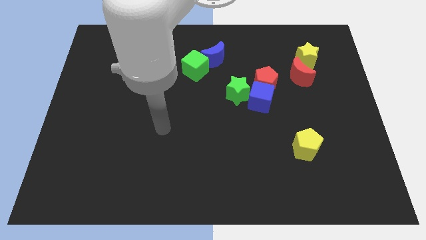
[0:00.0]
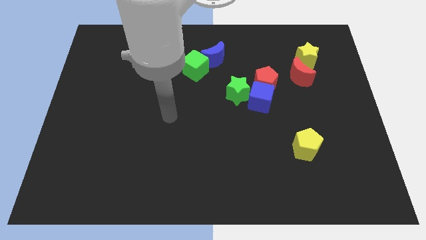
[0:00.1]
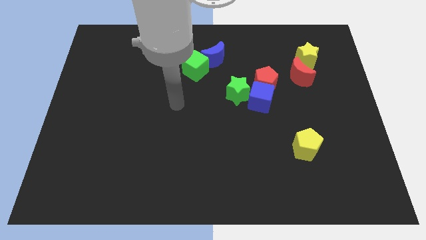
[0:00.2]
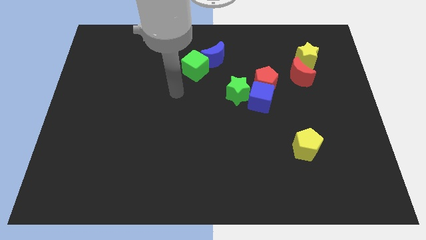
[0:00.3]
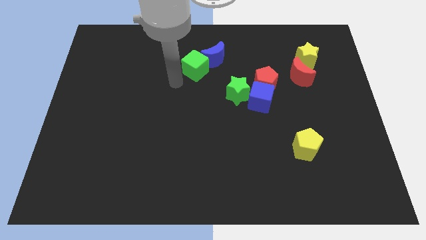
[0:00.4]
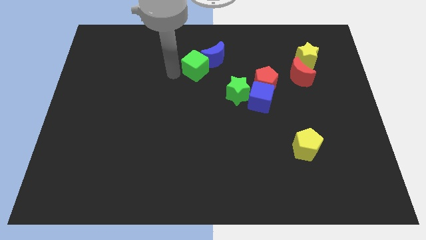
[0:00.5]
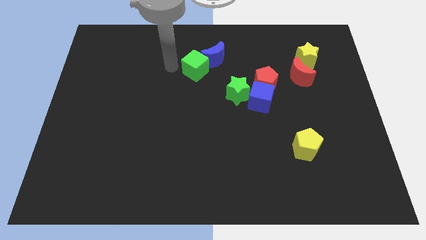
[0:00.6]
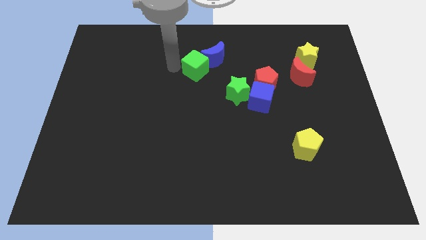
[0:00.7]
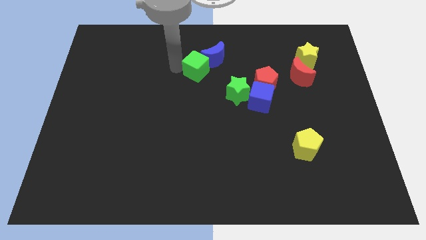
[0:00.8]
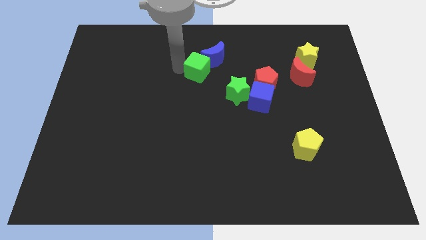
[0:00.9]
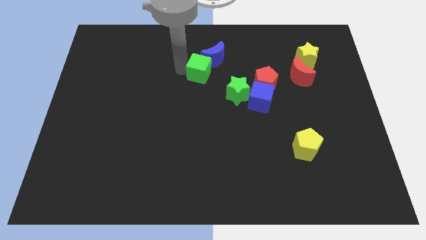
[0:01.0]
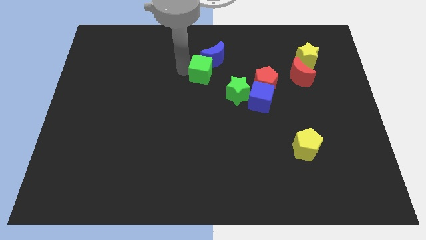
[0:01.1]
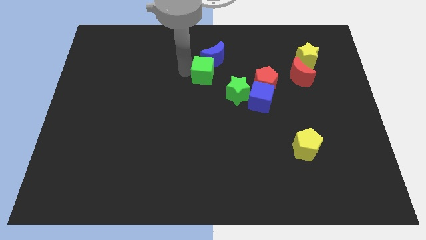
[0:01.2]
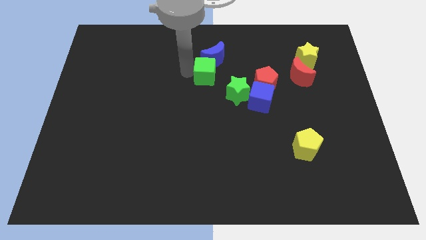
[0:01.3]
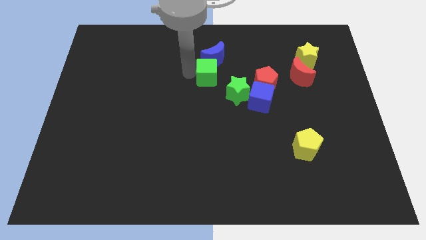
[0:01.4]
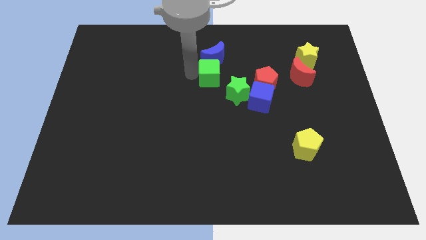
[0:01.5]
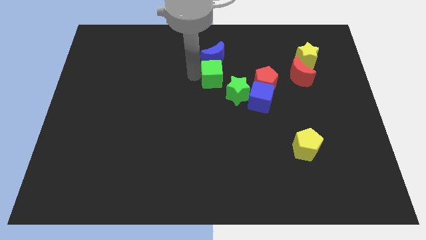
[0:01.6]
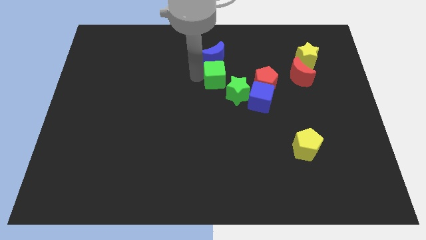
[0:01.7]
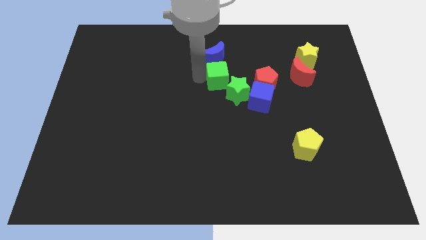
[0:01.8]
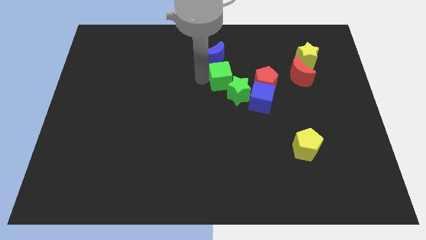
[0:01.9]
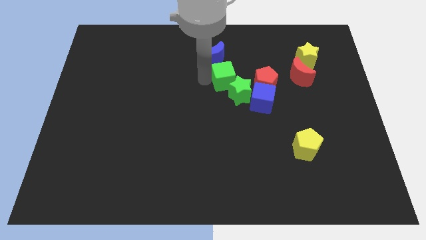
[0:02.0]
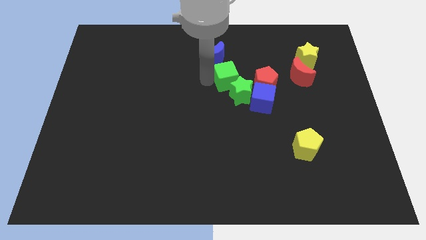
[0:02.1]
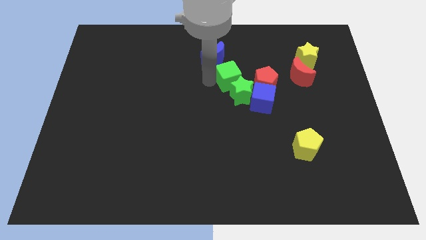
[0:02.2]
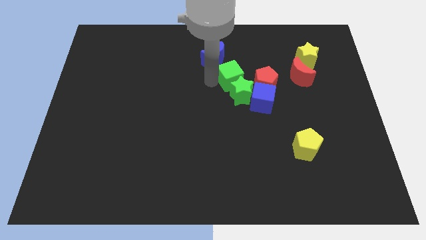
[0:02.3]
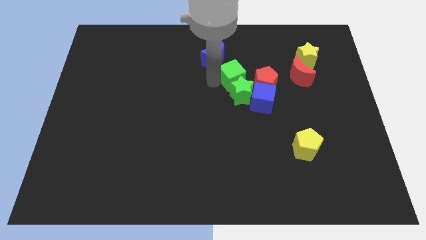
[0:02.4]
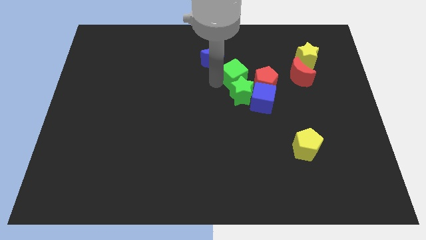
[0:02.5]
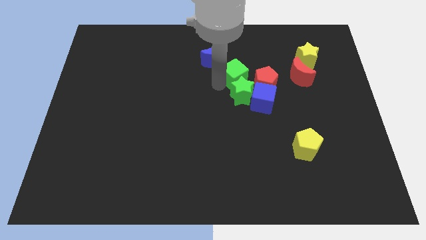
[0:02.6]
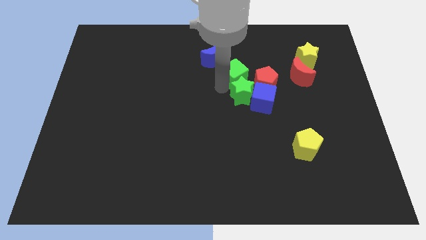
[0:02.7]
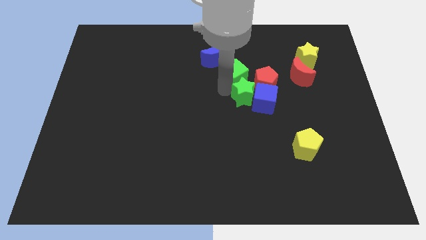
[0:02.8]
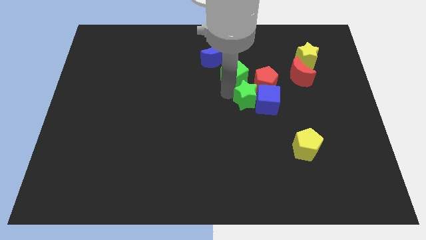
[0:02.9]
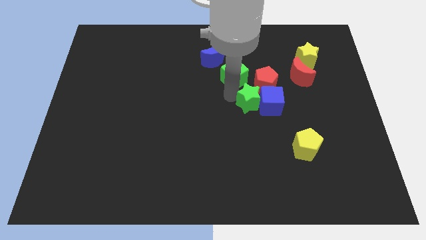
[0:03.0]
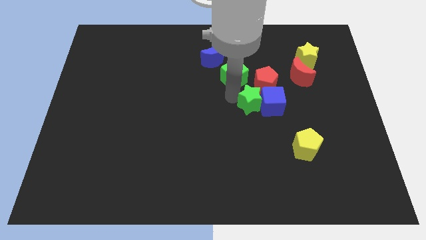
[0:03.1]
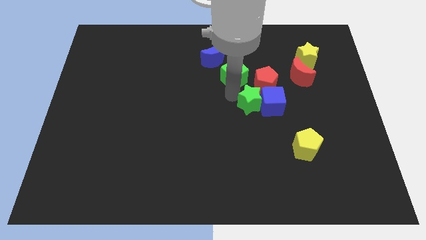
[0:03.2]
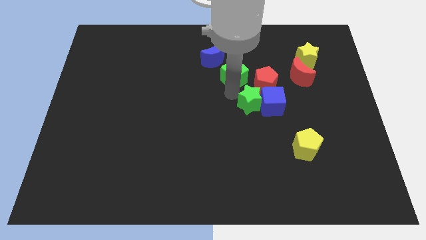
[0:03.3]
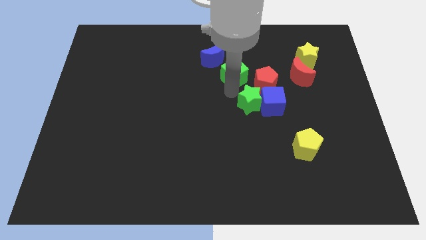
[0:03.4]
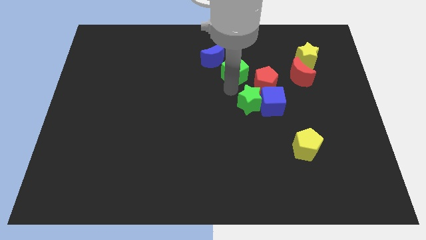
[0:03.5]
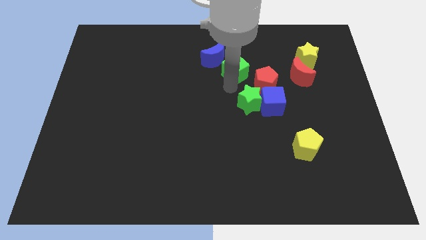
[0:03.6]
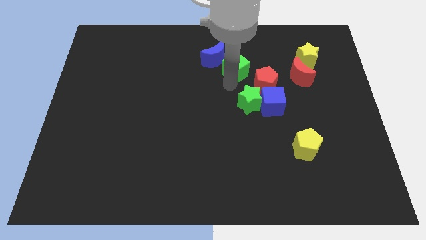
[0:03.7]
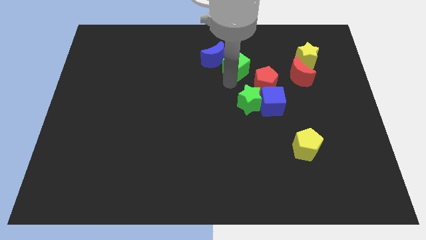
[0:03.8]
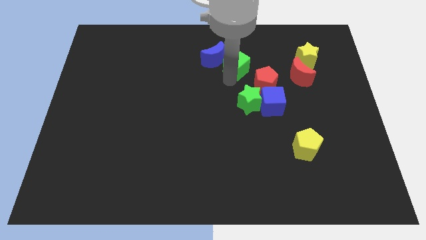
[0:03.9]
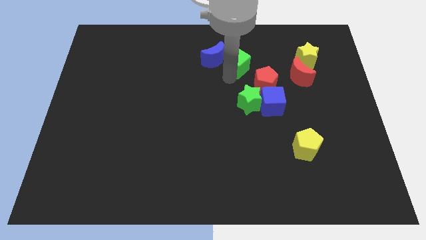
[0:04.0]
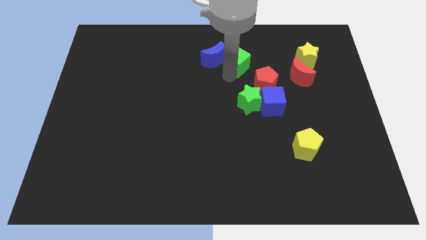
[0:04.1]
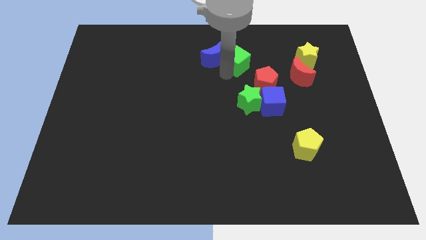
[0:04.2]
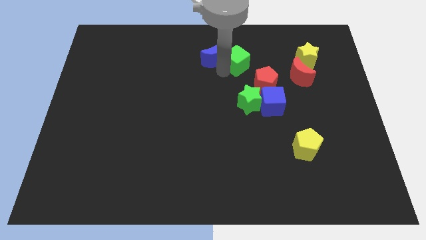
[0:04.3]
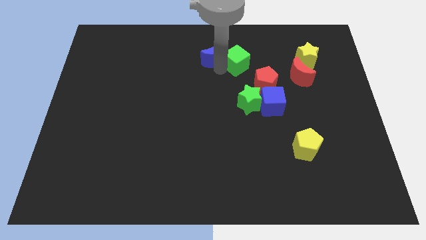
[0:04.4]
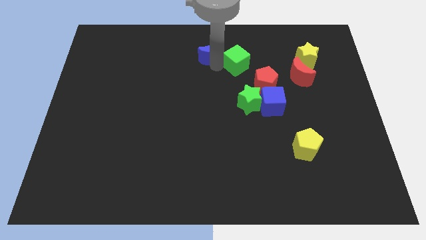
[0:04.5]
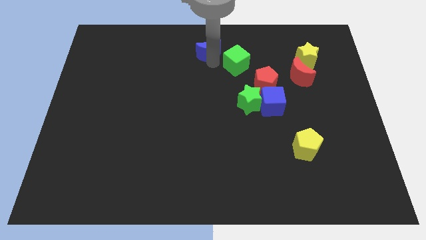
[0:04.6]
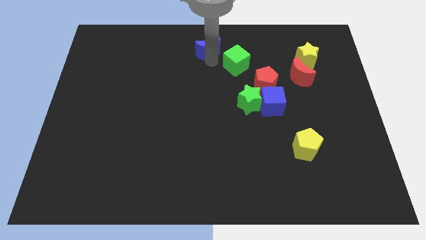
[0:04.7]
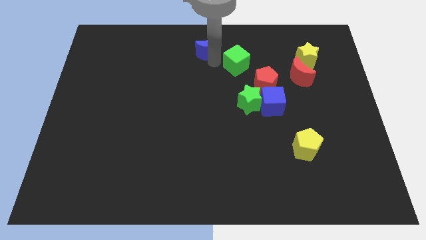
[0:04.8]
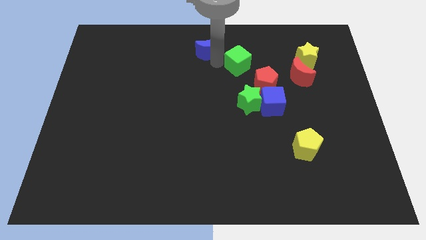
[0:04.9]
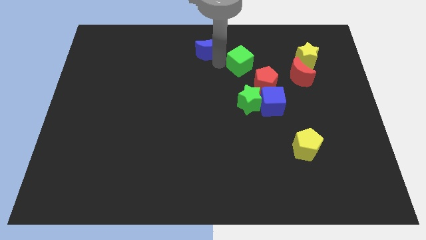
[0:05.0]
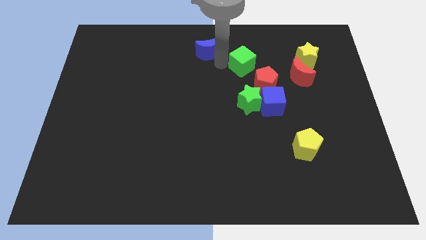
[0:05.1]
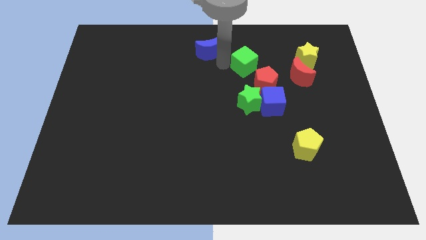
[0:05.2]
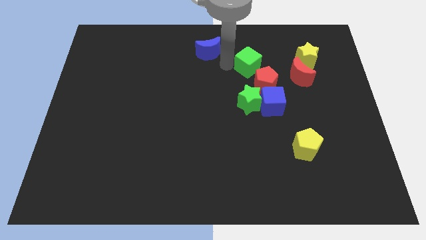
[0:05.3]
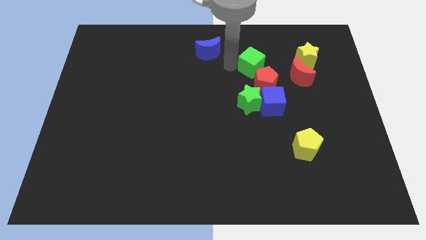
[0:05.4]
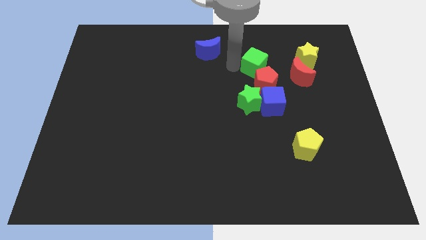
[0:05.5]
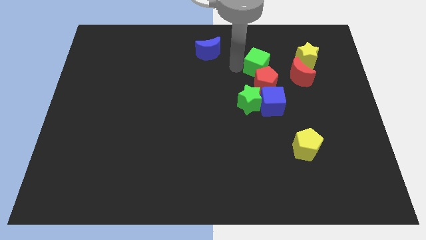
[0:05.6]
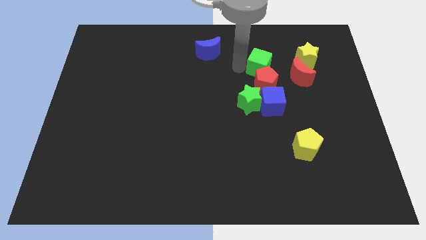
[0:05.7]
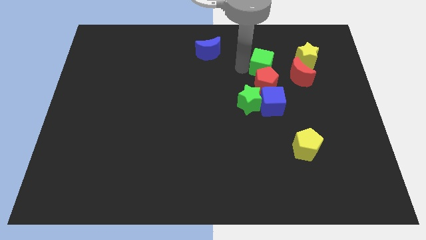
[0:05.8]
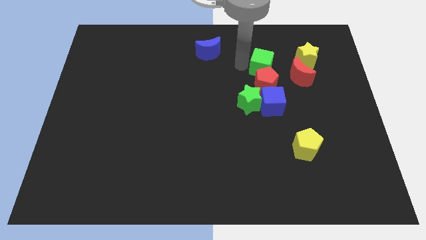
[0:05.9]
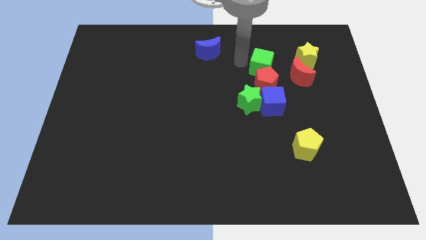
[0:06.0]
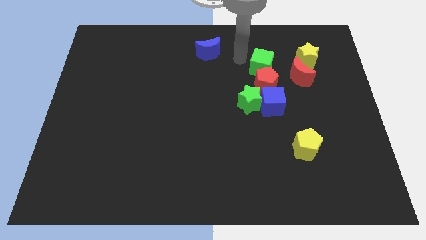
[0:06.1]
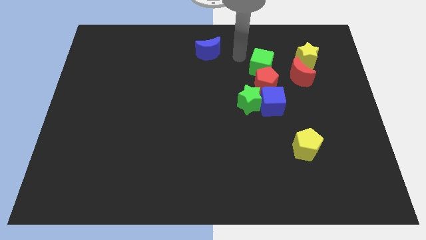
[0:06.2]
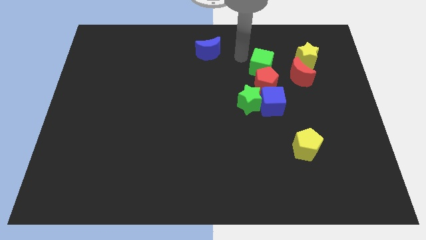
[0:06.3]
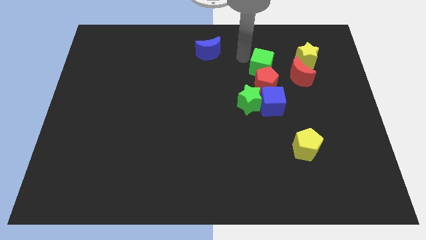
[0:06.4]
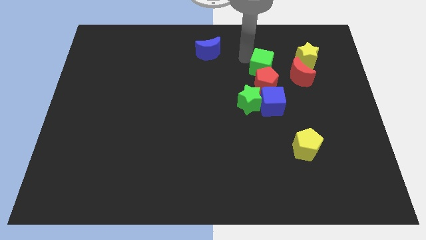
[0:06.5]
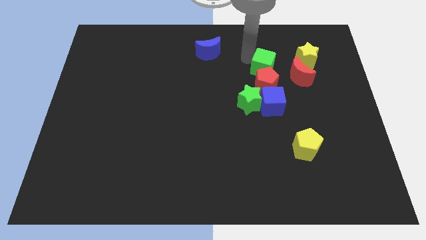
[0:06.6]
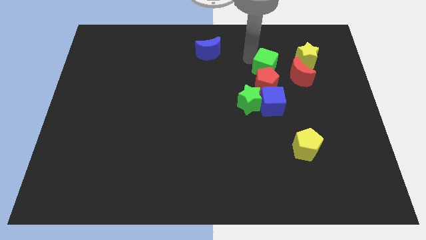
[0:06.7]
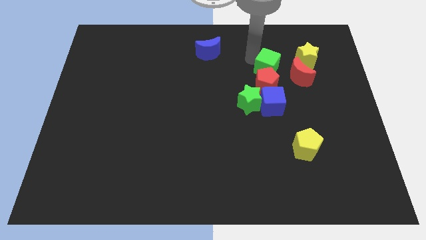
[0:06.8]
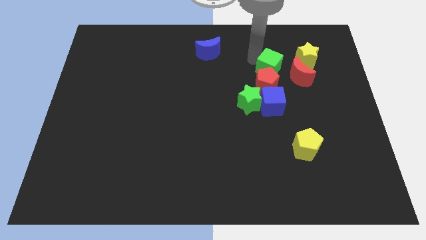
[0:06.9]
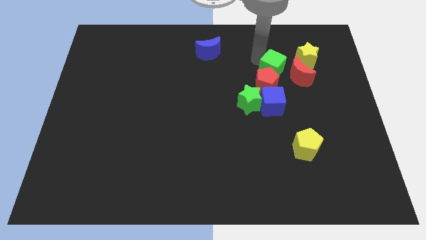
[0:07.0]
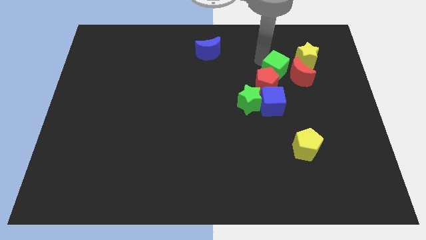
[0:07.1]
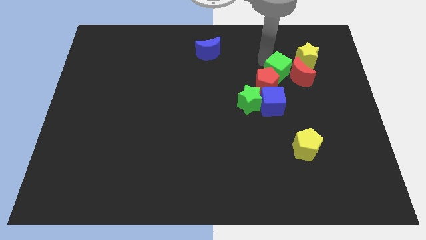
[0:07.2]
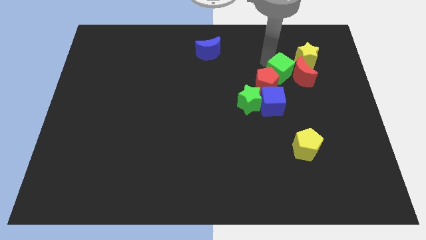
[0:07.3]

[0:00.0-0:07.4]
move the green cube to the bottom left of the red moon

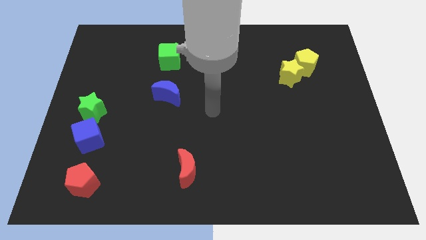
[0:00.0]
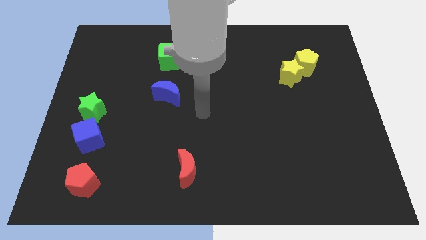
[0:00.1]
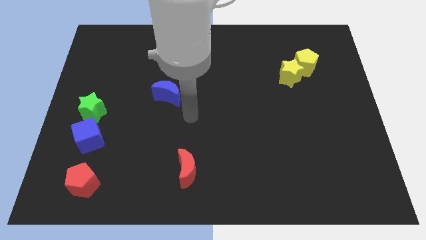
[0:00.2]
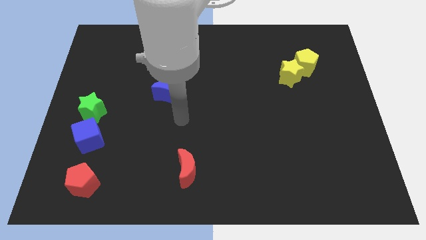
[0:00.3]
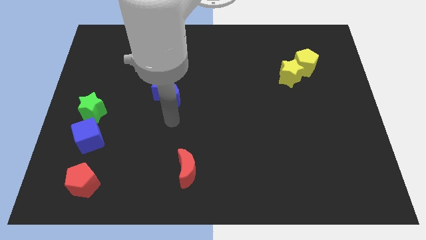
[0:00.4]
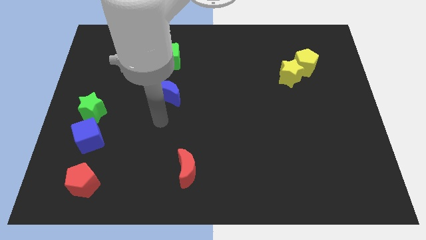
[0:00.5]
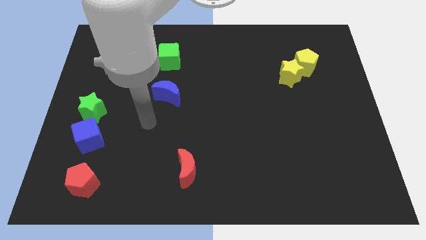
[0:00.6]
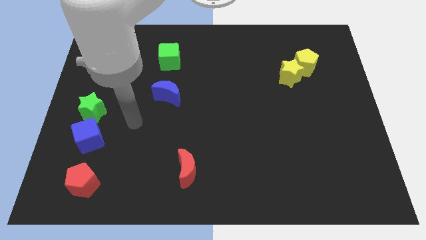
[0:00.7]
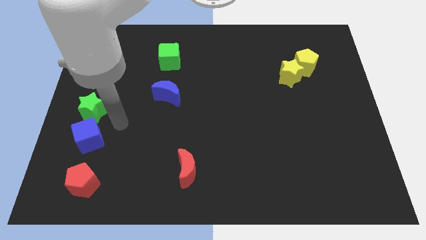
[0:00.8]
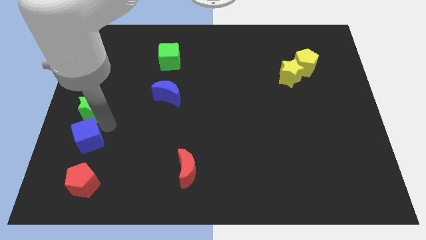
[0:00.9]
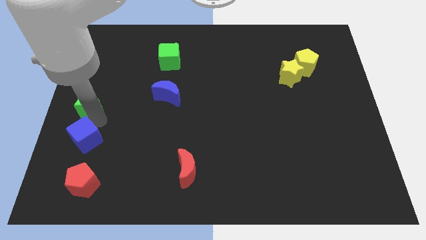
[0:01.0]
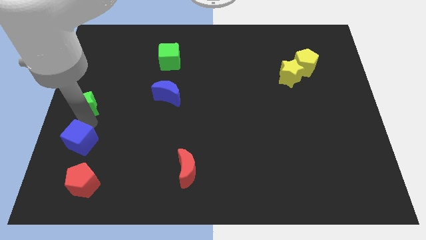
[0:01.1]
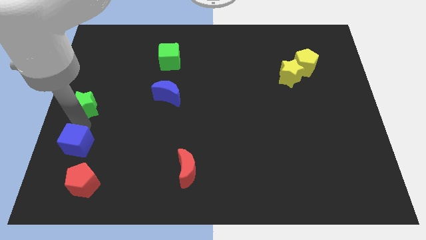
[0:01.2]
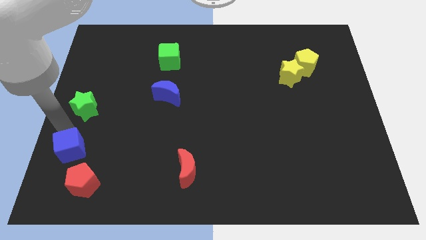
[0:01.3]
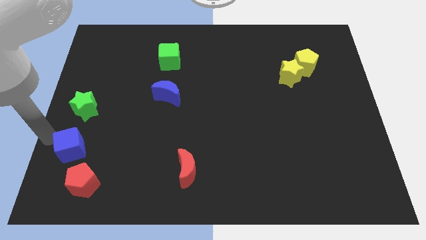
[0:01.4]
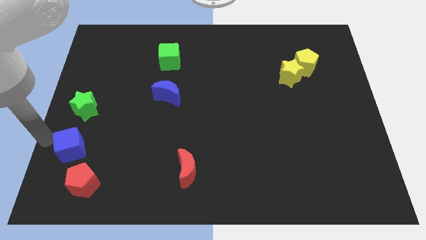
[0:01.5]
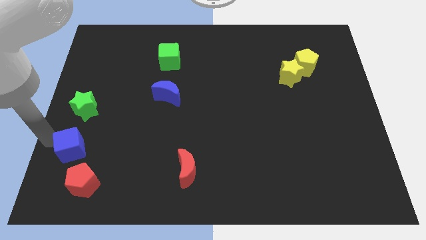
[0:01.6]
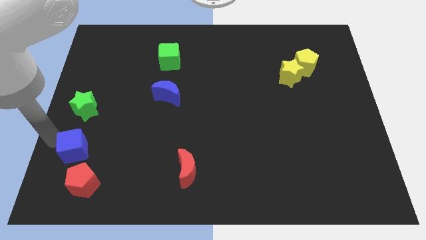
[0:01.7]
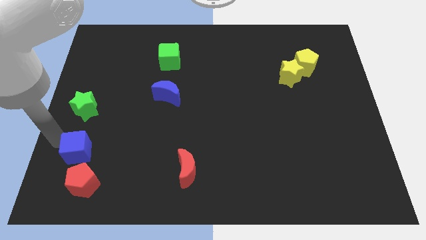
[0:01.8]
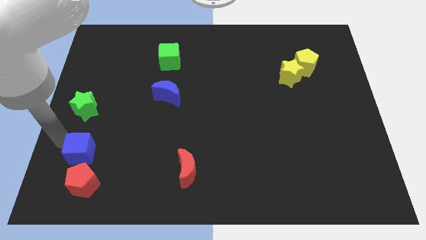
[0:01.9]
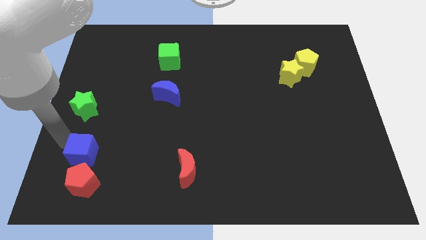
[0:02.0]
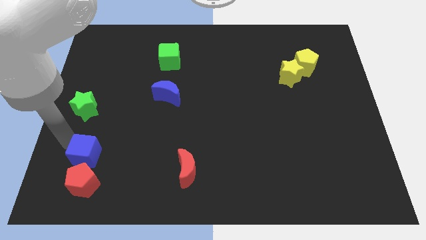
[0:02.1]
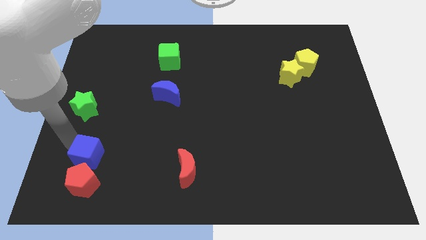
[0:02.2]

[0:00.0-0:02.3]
slide the blue cube to the top right side of the red pentagon
